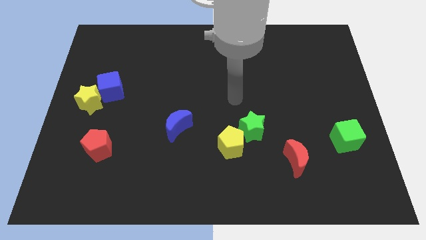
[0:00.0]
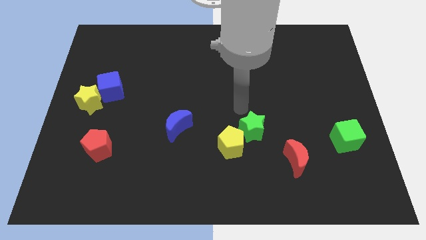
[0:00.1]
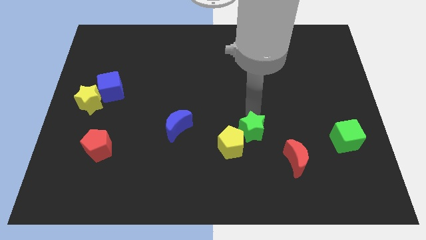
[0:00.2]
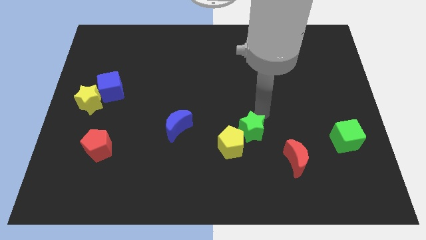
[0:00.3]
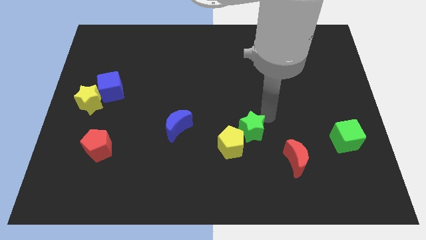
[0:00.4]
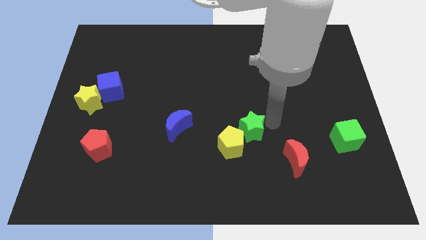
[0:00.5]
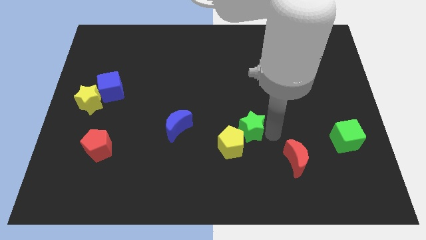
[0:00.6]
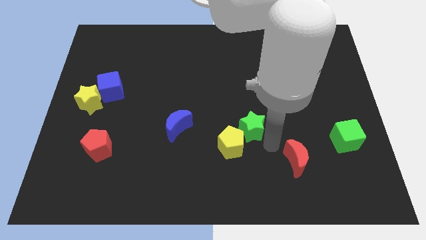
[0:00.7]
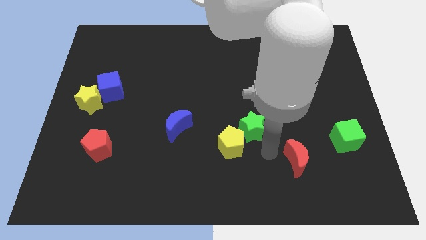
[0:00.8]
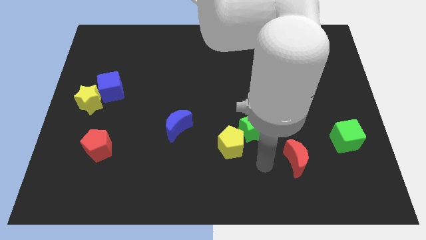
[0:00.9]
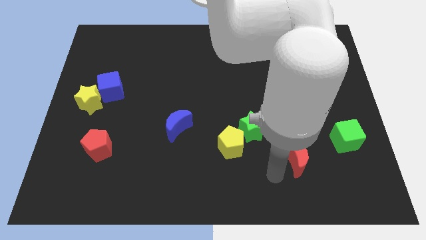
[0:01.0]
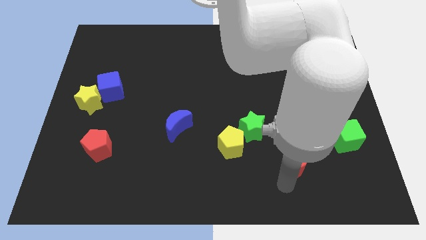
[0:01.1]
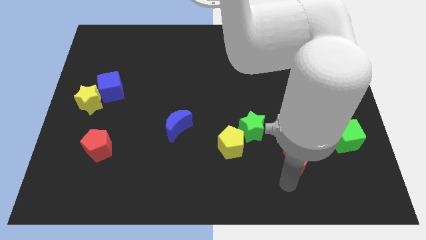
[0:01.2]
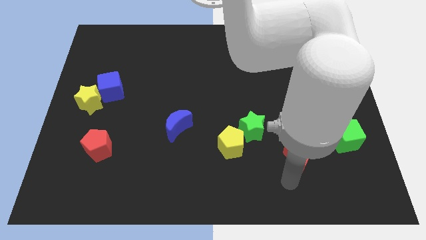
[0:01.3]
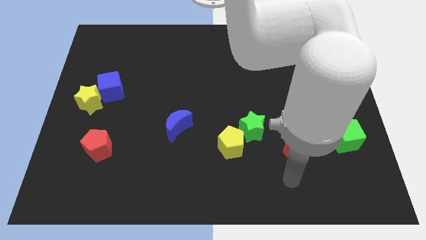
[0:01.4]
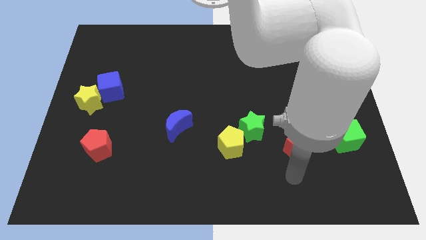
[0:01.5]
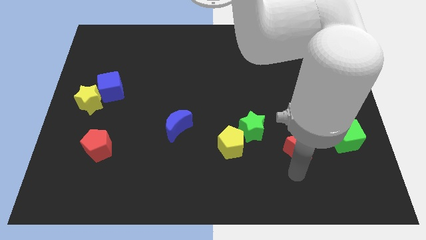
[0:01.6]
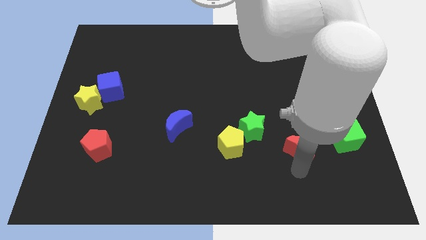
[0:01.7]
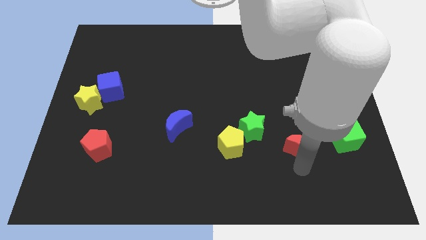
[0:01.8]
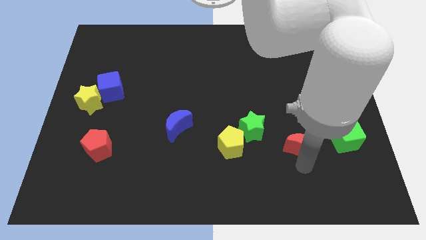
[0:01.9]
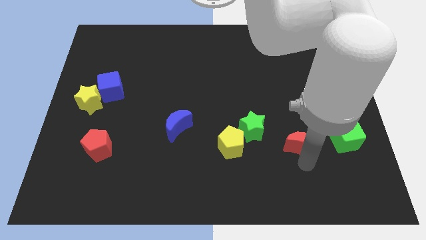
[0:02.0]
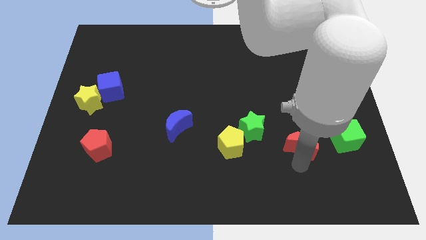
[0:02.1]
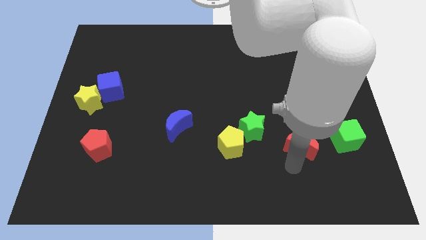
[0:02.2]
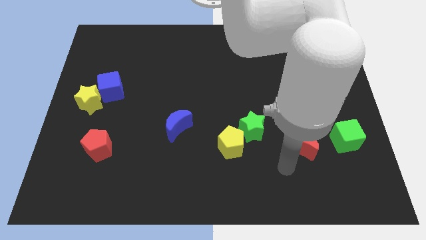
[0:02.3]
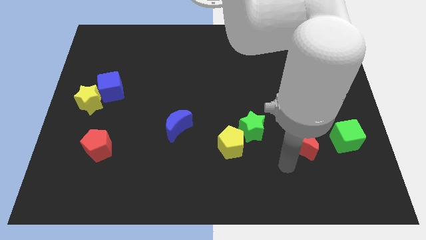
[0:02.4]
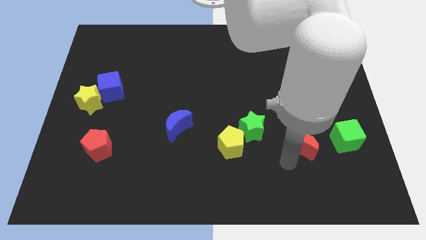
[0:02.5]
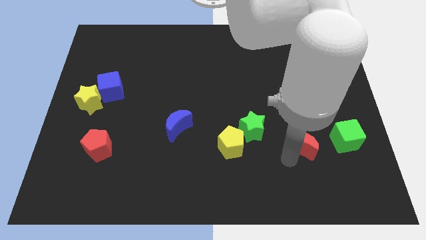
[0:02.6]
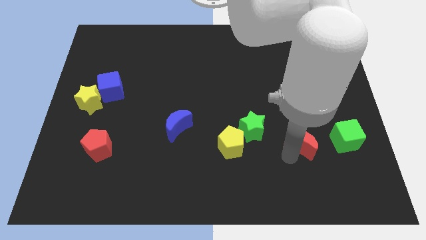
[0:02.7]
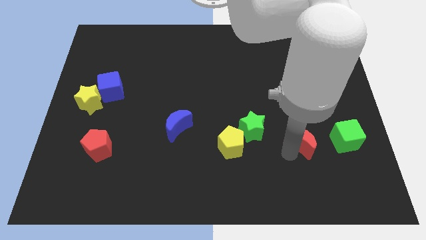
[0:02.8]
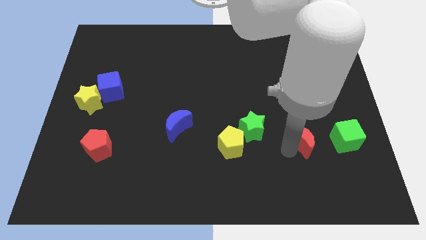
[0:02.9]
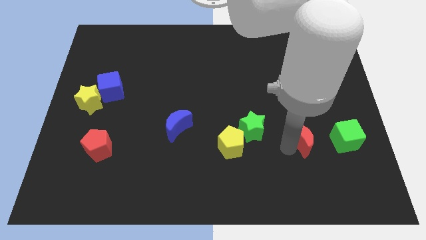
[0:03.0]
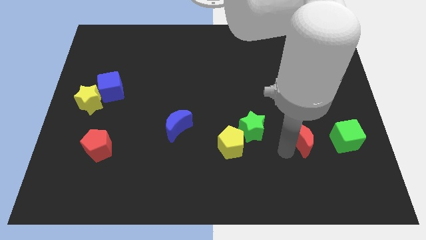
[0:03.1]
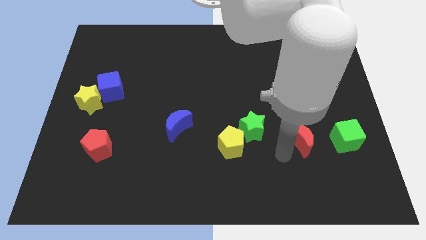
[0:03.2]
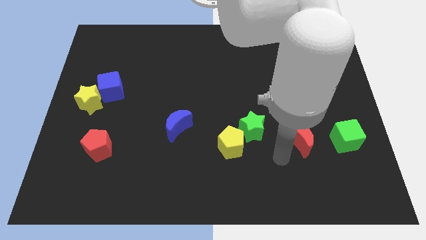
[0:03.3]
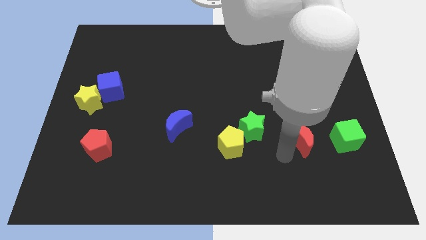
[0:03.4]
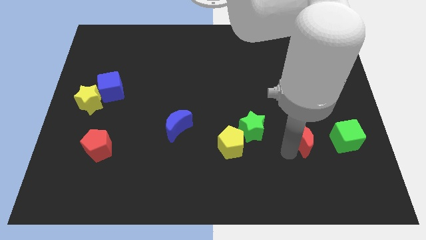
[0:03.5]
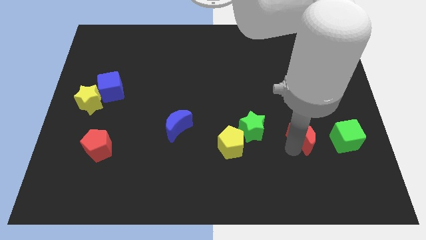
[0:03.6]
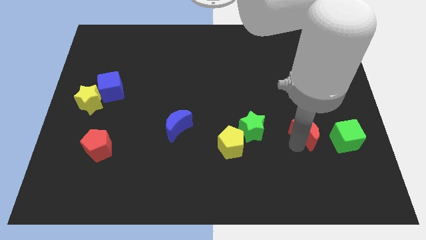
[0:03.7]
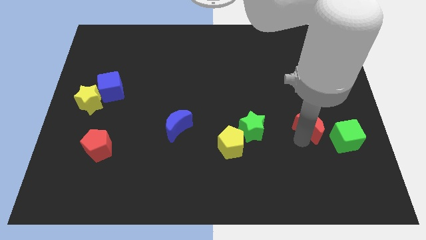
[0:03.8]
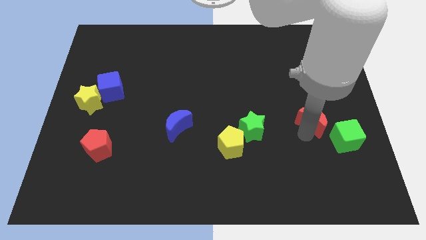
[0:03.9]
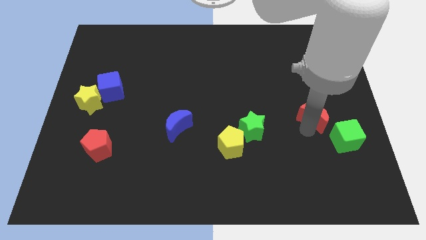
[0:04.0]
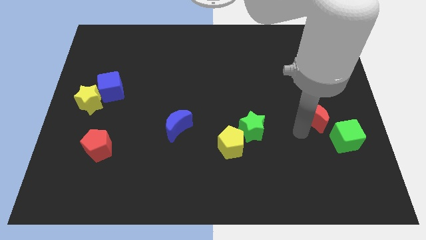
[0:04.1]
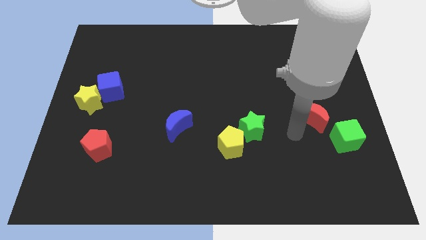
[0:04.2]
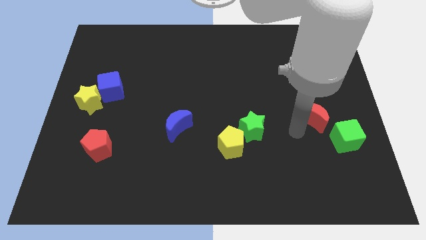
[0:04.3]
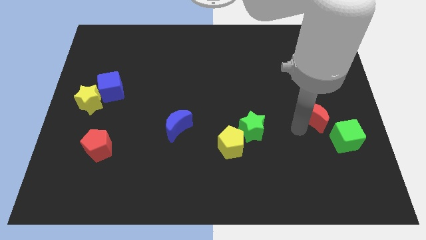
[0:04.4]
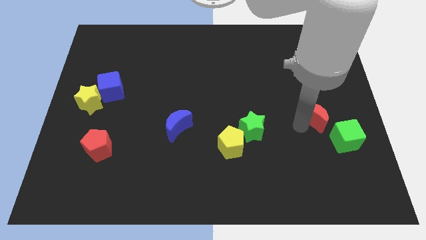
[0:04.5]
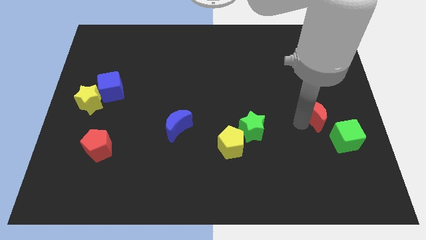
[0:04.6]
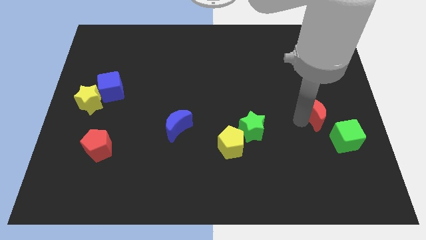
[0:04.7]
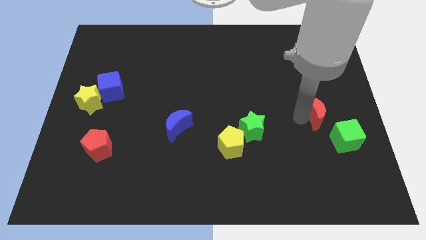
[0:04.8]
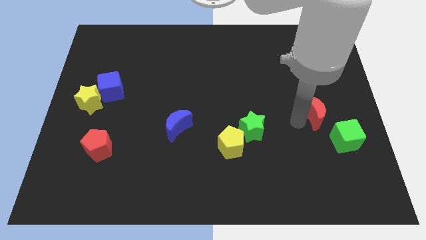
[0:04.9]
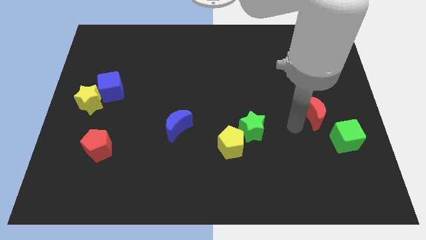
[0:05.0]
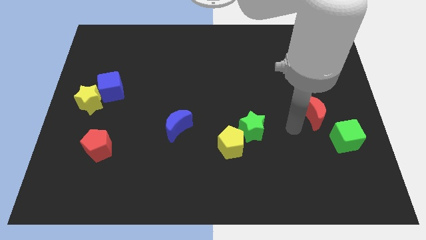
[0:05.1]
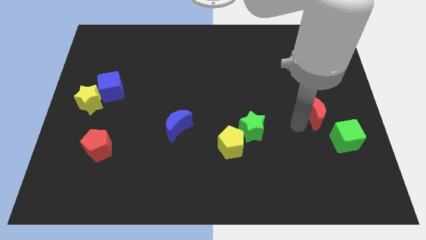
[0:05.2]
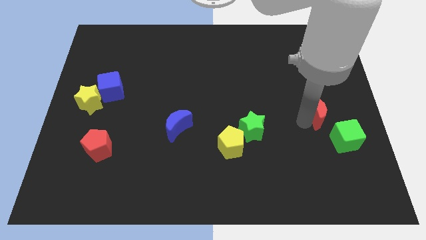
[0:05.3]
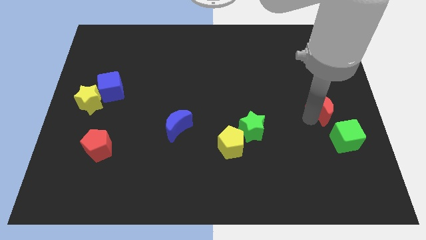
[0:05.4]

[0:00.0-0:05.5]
put the red moon to the top side of the green cube

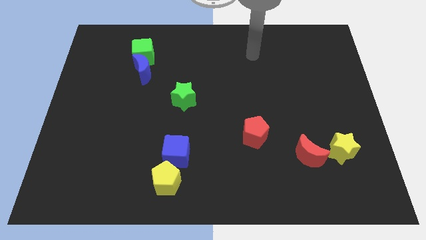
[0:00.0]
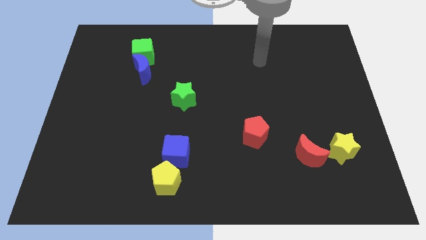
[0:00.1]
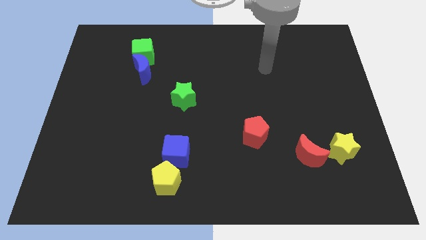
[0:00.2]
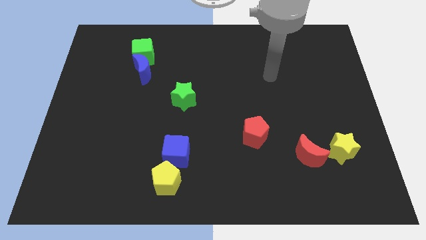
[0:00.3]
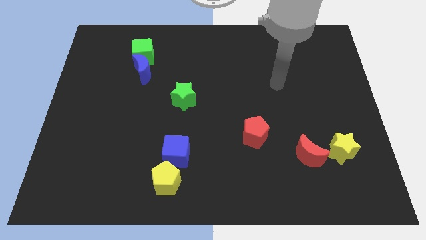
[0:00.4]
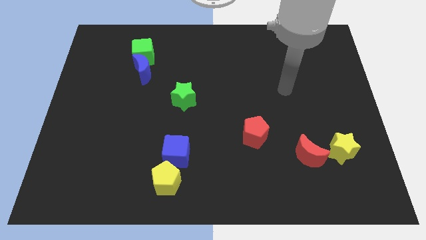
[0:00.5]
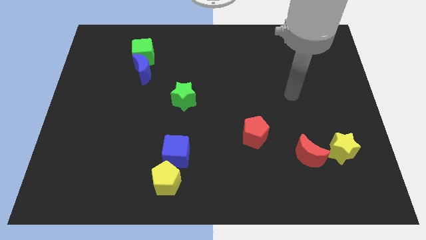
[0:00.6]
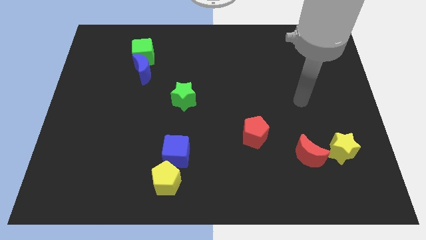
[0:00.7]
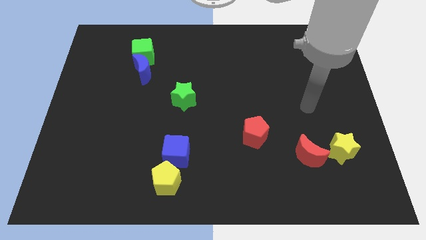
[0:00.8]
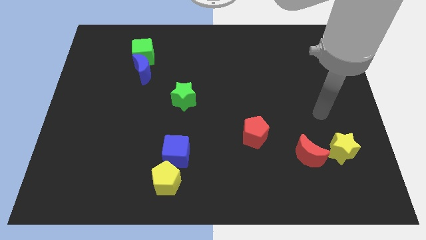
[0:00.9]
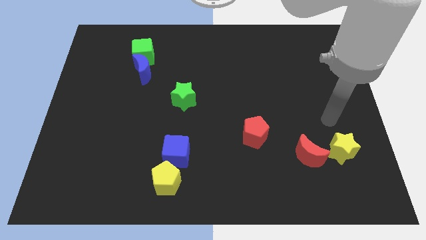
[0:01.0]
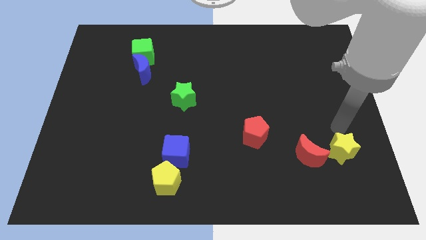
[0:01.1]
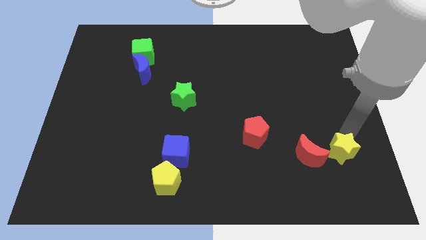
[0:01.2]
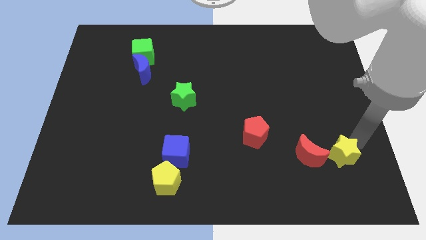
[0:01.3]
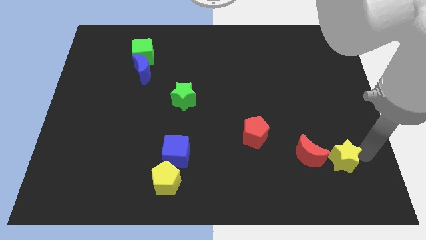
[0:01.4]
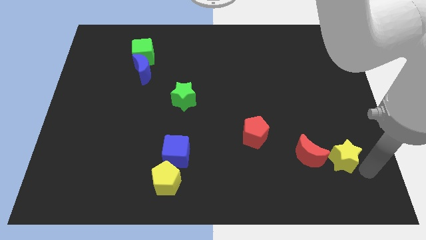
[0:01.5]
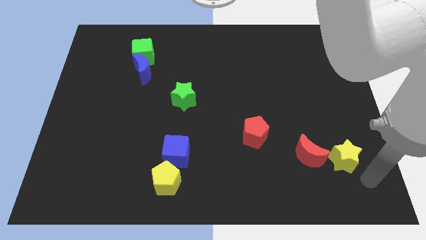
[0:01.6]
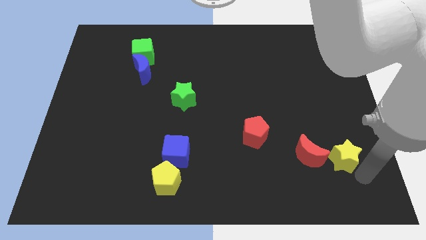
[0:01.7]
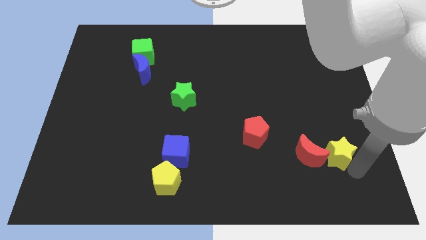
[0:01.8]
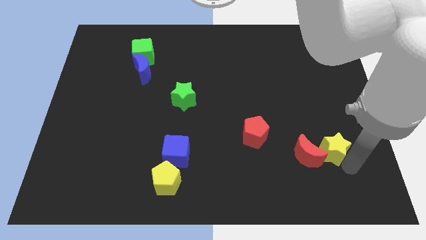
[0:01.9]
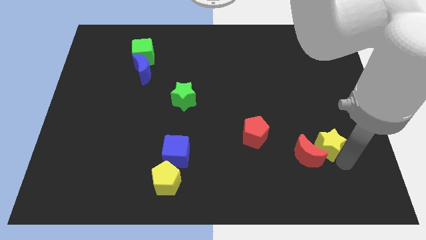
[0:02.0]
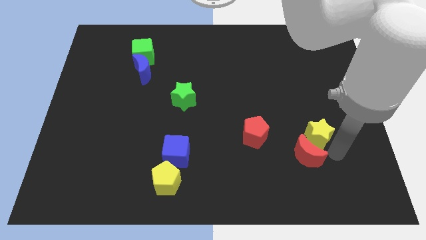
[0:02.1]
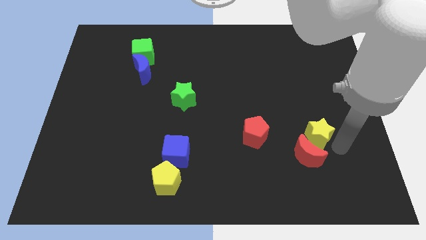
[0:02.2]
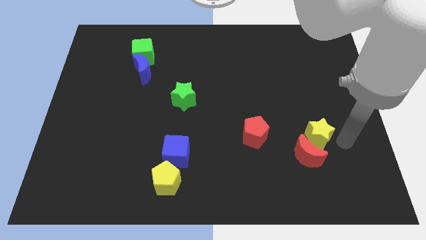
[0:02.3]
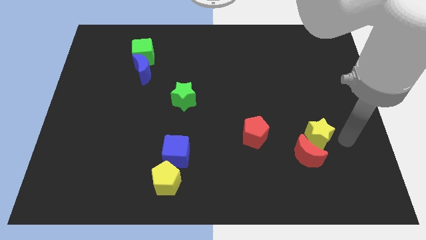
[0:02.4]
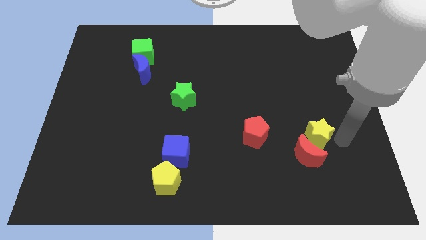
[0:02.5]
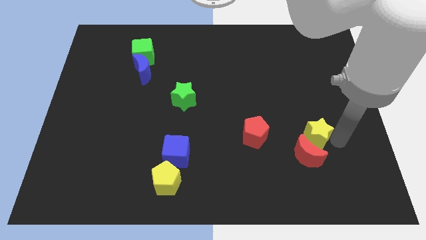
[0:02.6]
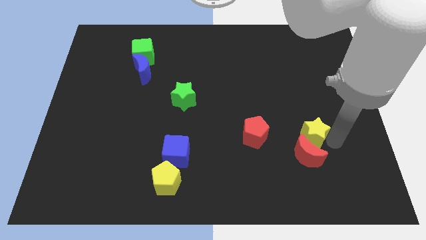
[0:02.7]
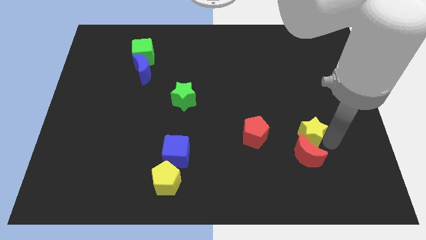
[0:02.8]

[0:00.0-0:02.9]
push the yellow star to the top left of the red moon
